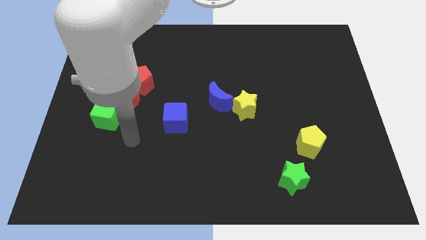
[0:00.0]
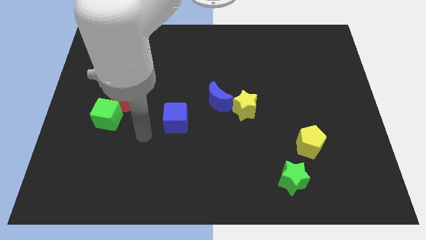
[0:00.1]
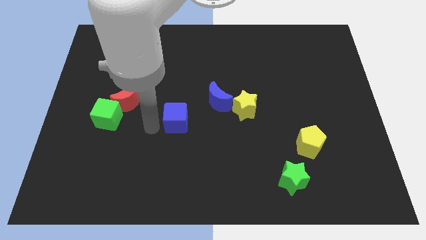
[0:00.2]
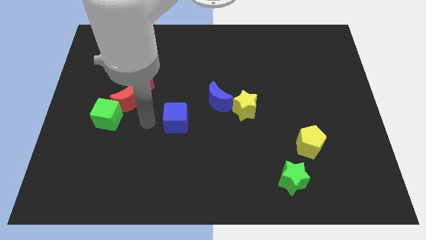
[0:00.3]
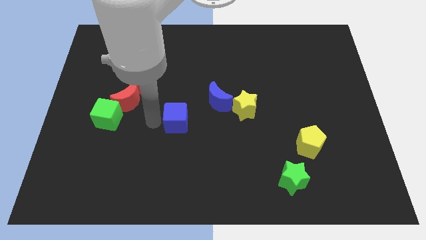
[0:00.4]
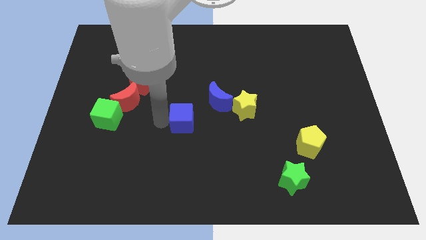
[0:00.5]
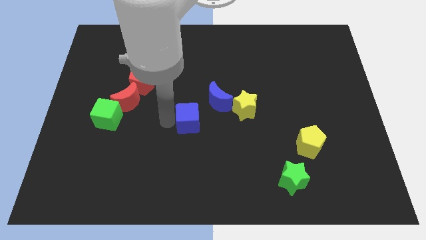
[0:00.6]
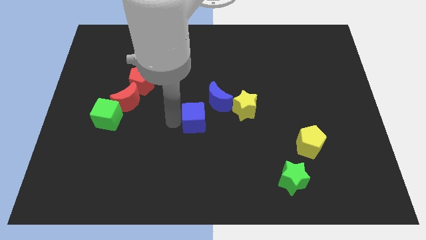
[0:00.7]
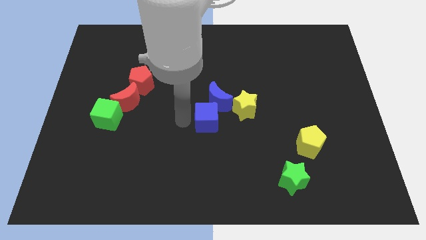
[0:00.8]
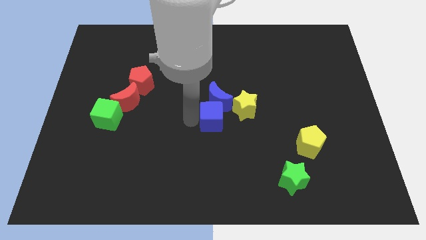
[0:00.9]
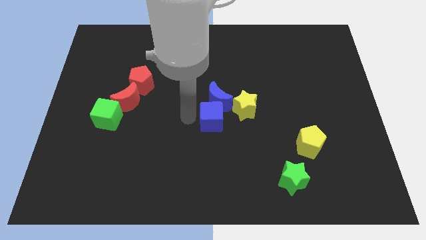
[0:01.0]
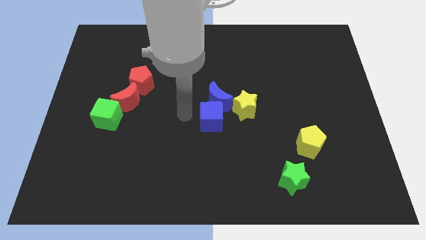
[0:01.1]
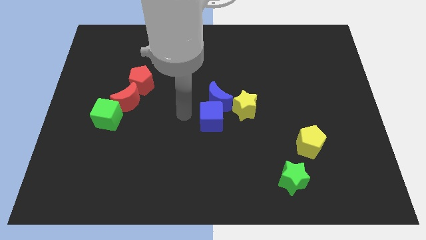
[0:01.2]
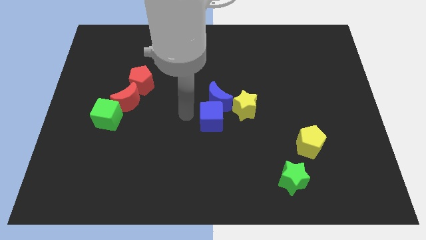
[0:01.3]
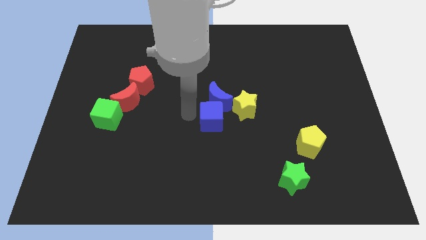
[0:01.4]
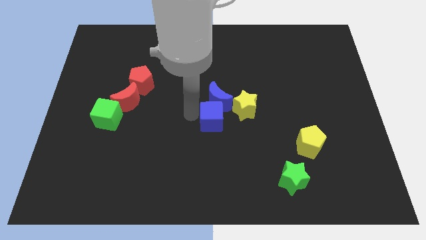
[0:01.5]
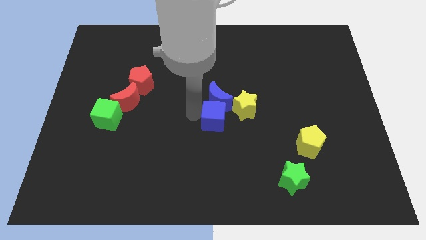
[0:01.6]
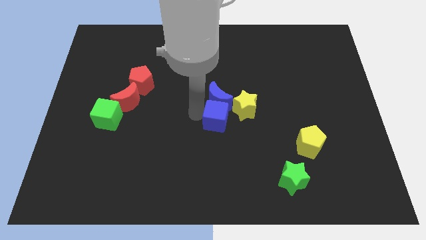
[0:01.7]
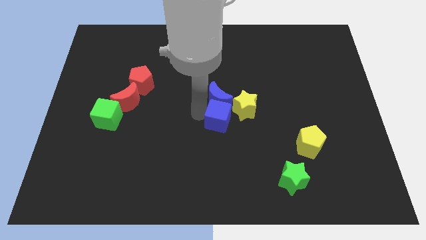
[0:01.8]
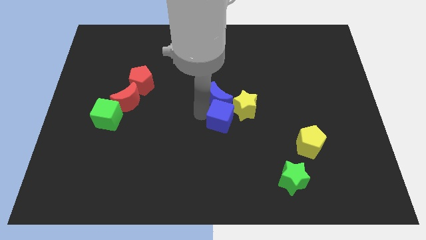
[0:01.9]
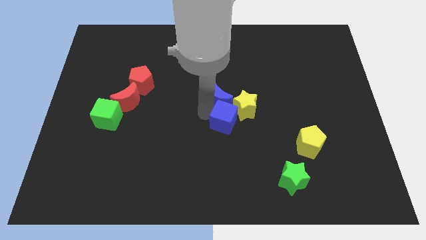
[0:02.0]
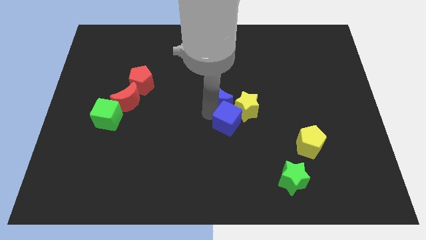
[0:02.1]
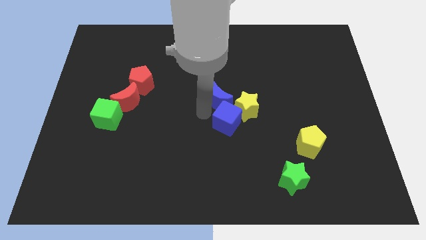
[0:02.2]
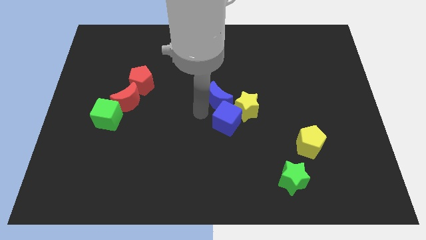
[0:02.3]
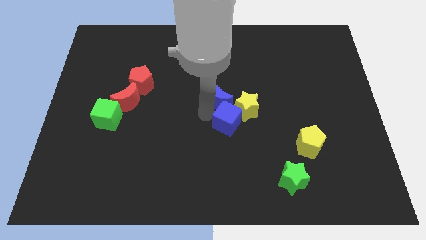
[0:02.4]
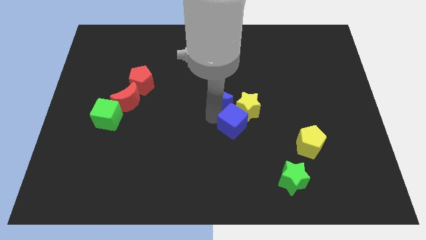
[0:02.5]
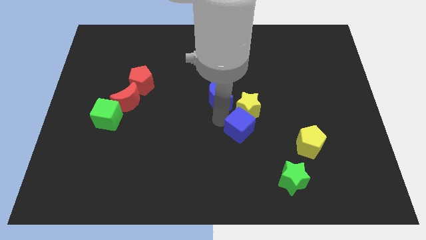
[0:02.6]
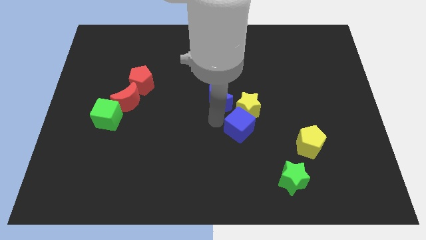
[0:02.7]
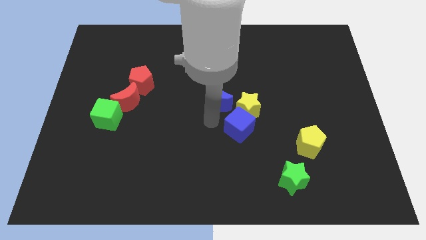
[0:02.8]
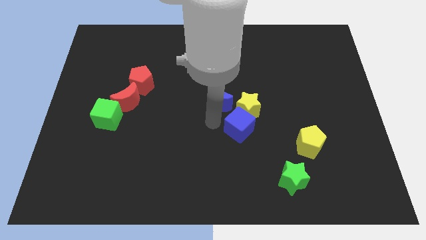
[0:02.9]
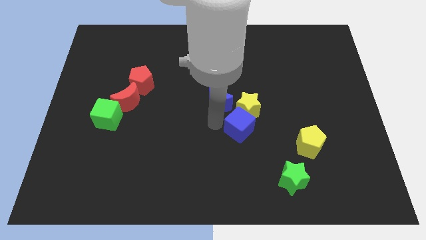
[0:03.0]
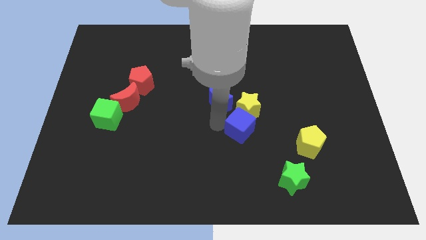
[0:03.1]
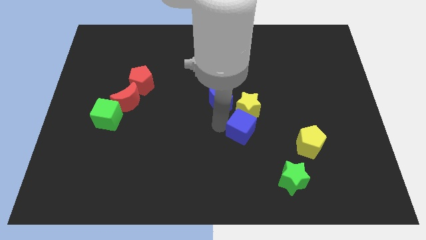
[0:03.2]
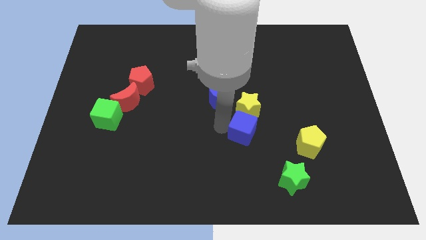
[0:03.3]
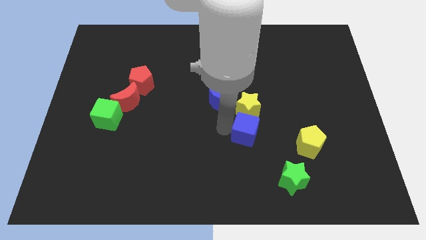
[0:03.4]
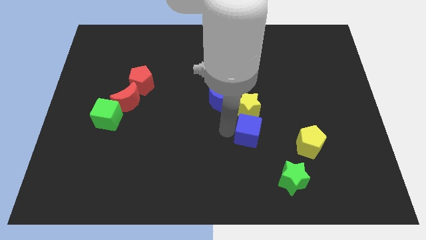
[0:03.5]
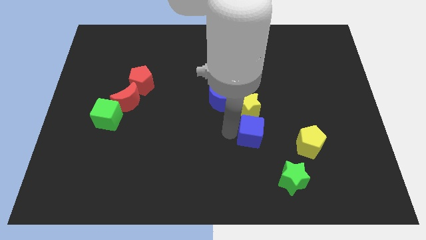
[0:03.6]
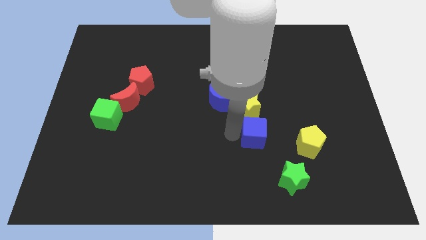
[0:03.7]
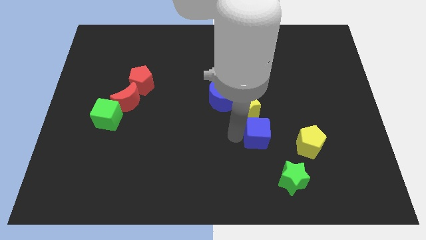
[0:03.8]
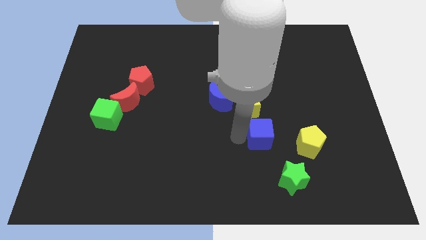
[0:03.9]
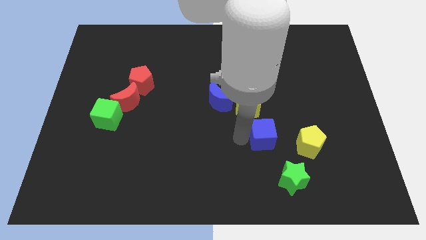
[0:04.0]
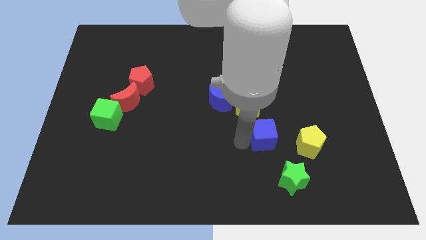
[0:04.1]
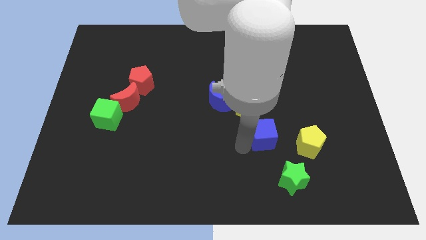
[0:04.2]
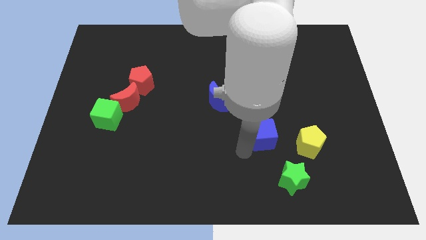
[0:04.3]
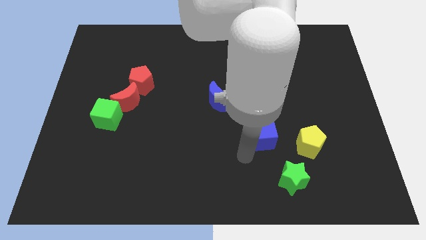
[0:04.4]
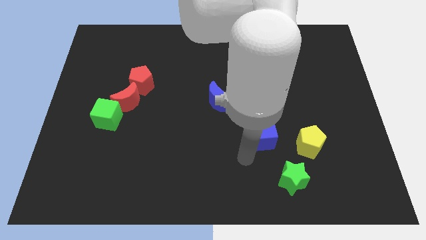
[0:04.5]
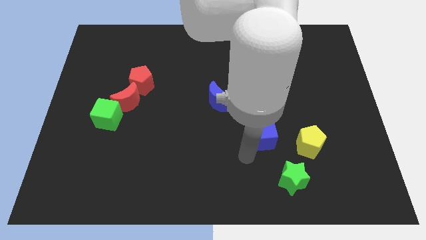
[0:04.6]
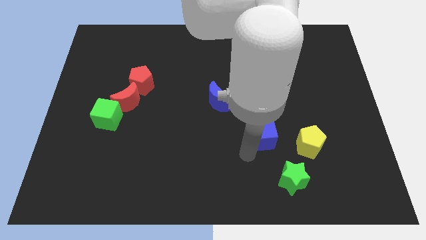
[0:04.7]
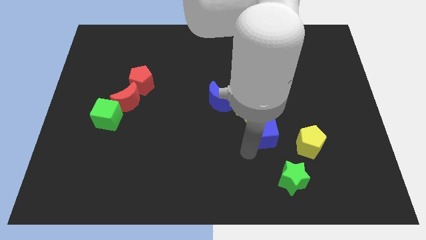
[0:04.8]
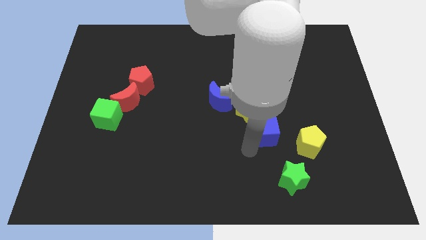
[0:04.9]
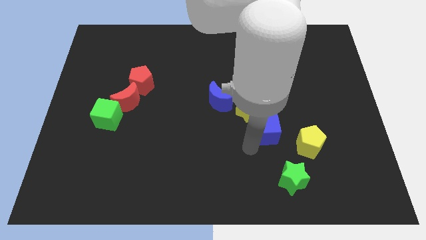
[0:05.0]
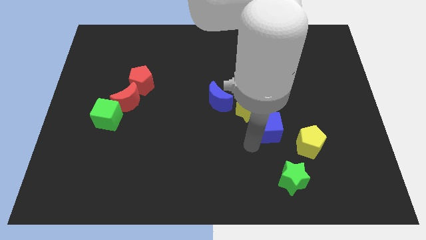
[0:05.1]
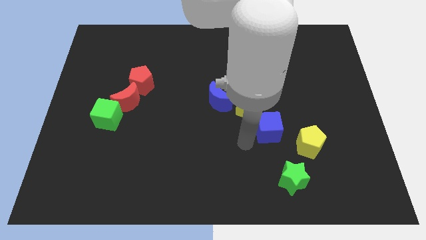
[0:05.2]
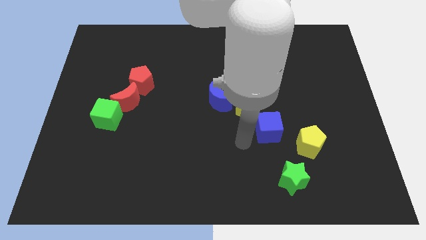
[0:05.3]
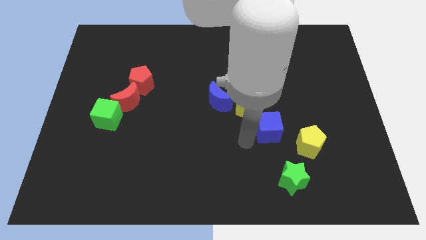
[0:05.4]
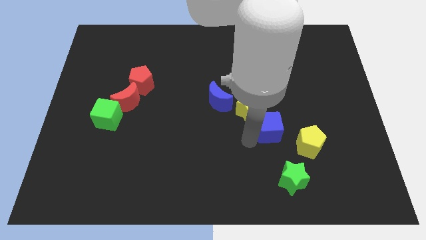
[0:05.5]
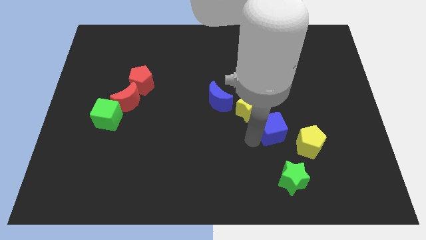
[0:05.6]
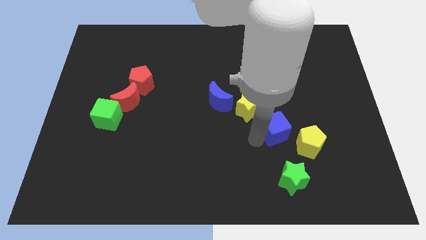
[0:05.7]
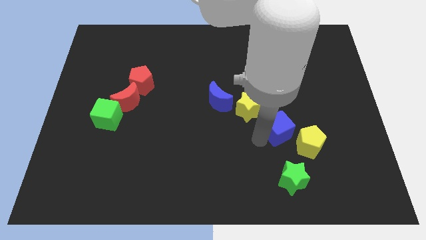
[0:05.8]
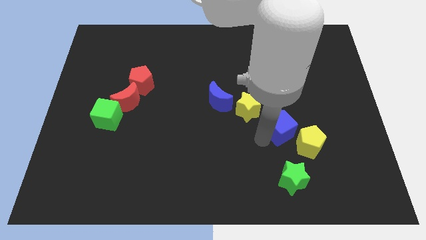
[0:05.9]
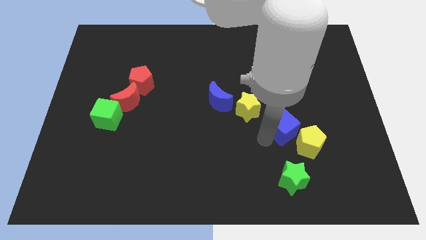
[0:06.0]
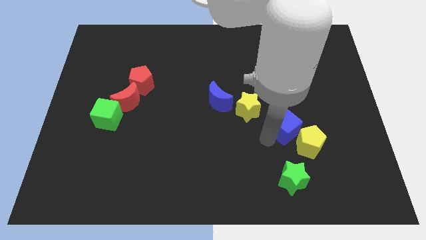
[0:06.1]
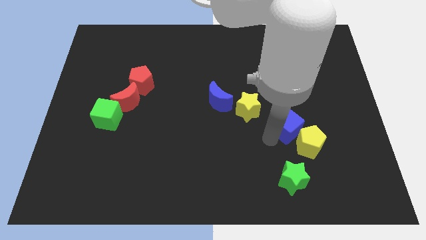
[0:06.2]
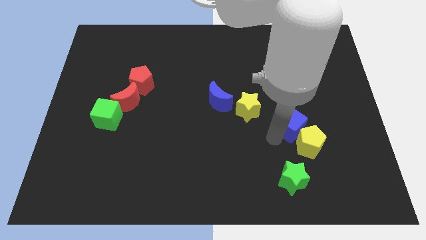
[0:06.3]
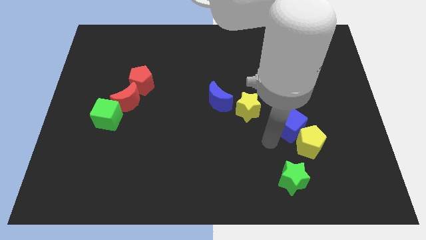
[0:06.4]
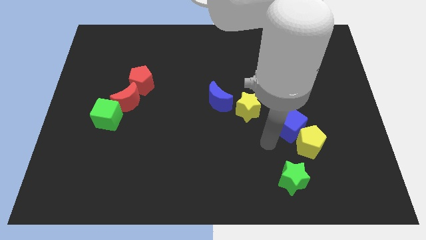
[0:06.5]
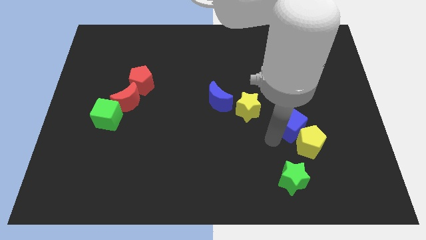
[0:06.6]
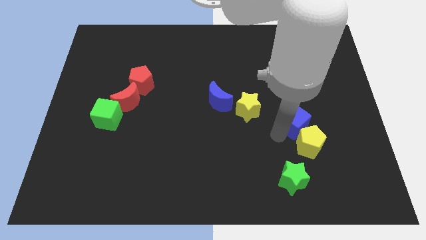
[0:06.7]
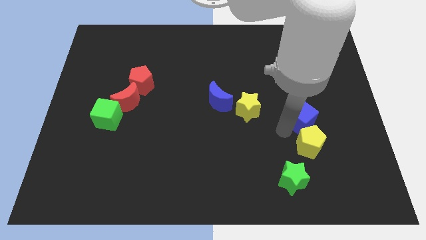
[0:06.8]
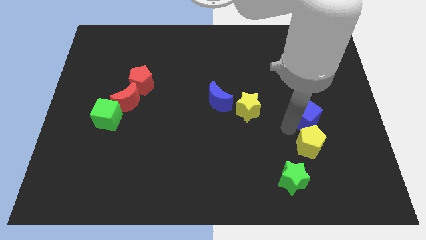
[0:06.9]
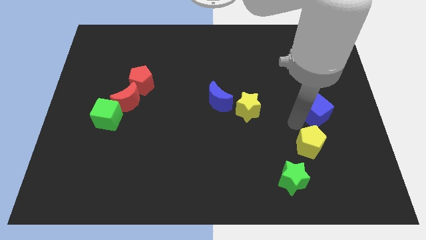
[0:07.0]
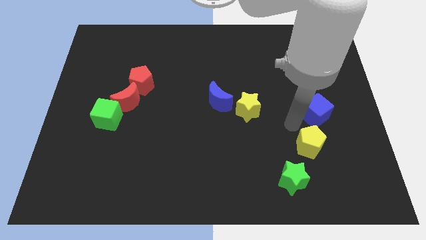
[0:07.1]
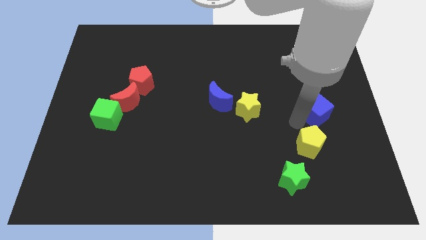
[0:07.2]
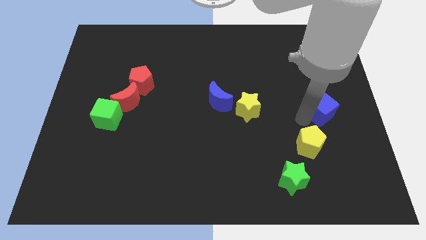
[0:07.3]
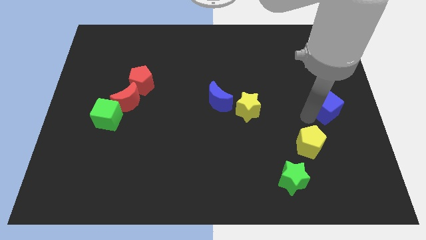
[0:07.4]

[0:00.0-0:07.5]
slide the blue cube to the center right

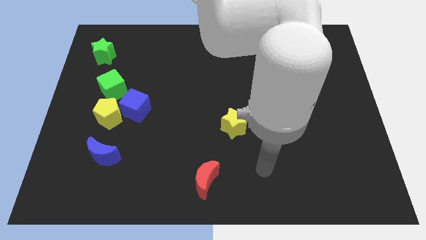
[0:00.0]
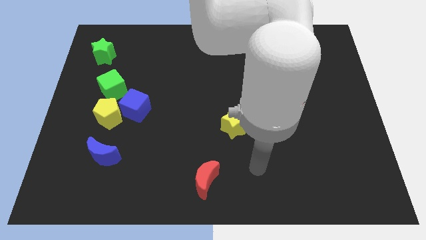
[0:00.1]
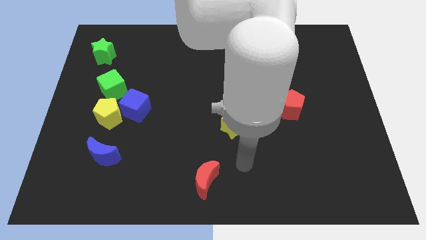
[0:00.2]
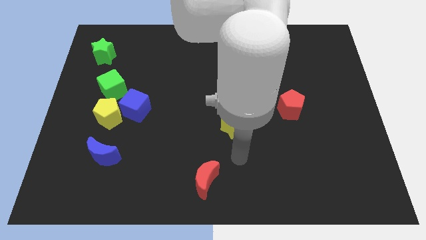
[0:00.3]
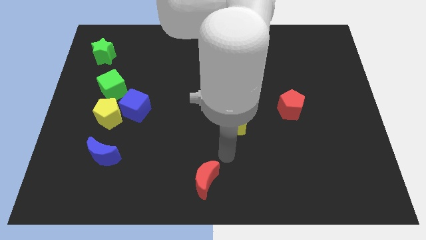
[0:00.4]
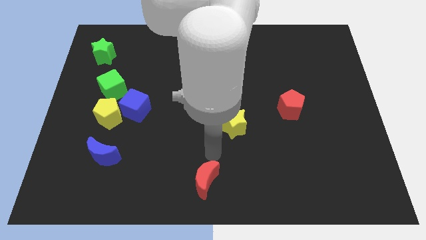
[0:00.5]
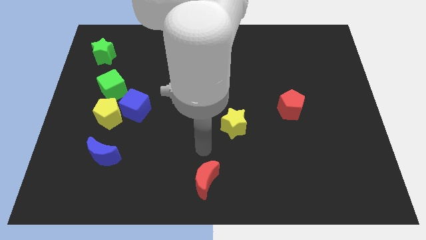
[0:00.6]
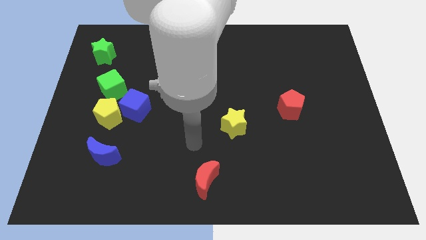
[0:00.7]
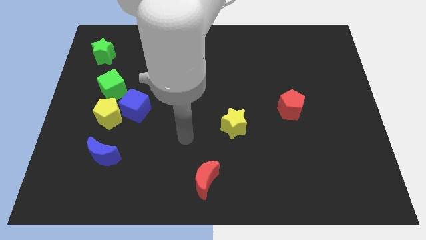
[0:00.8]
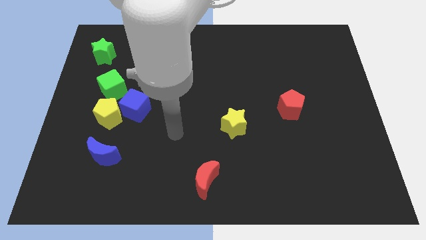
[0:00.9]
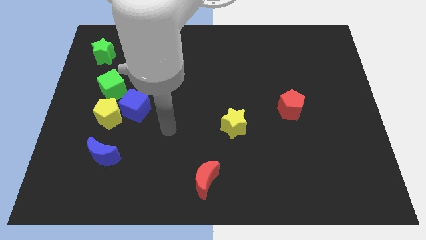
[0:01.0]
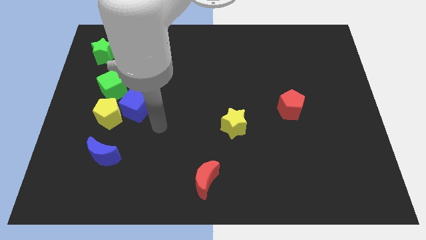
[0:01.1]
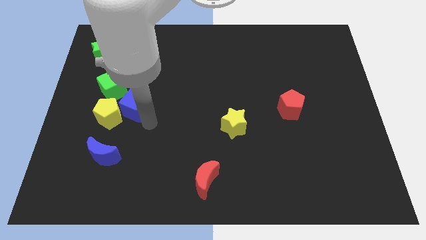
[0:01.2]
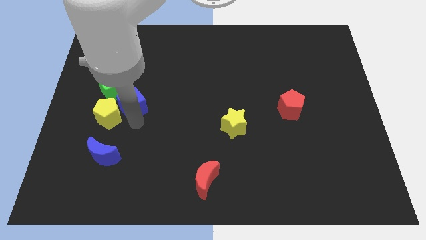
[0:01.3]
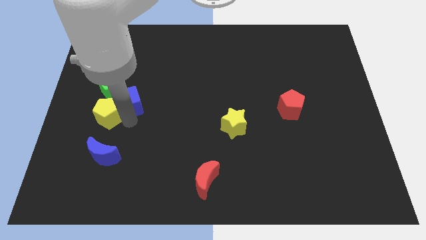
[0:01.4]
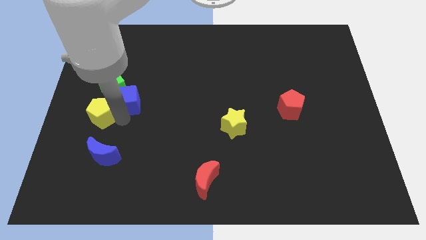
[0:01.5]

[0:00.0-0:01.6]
move the yellow pentagon to the left side of the board
